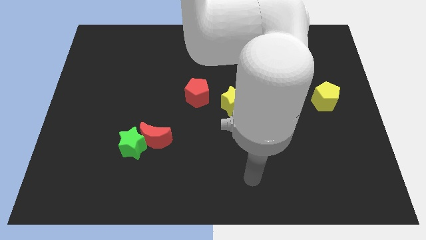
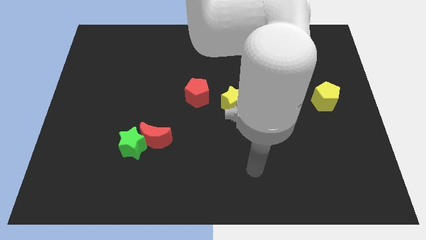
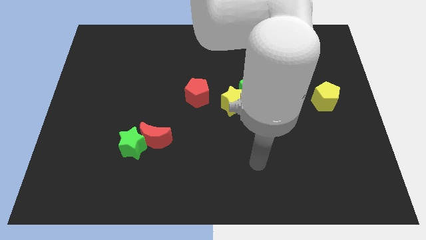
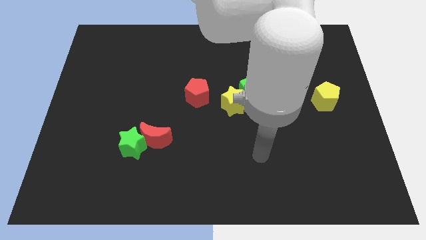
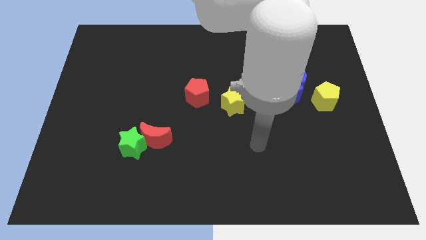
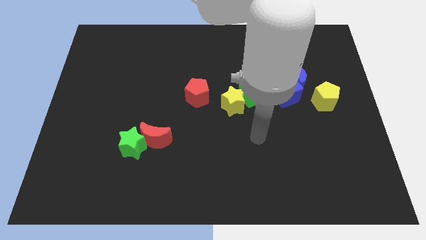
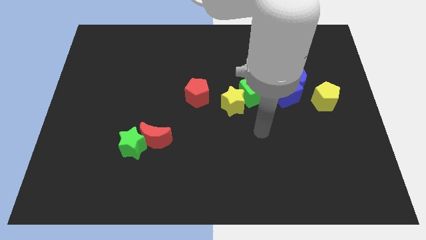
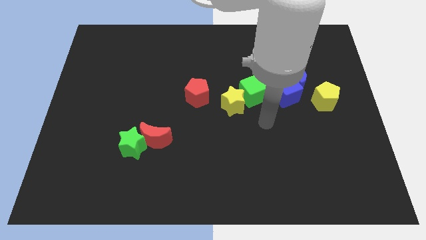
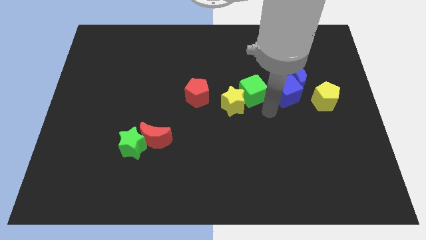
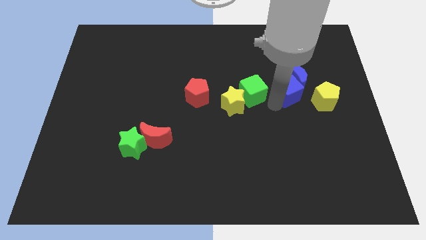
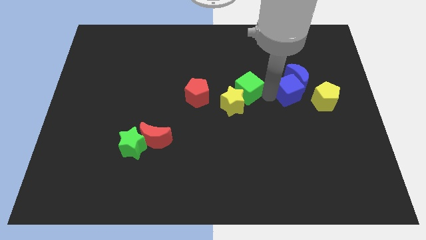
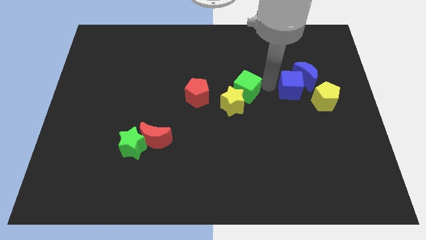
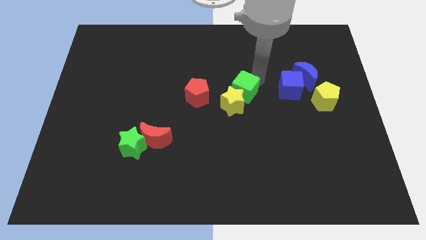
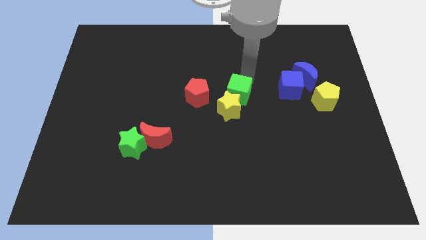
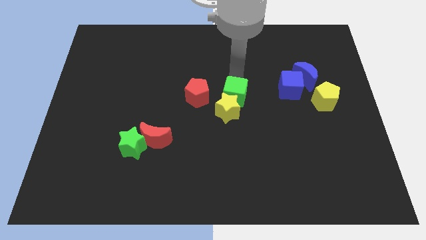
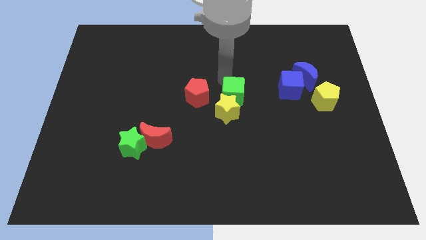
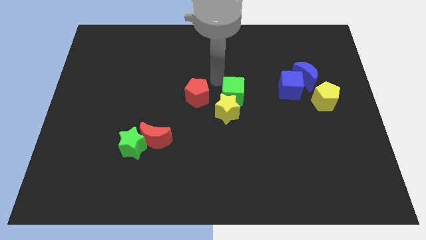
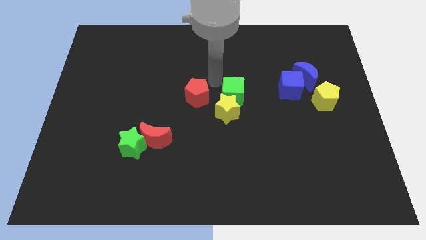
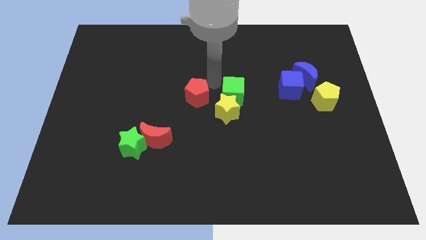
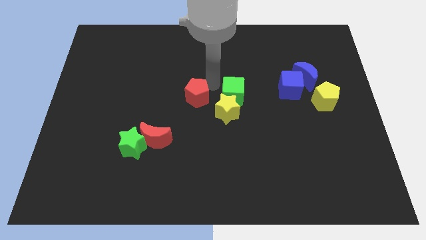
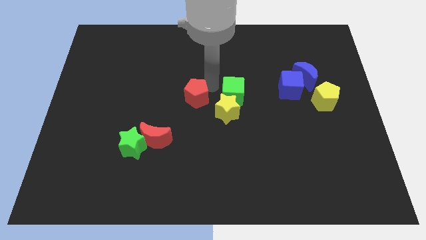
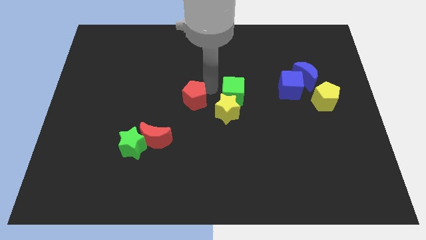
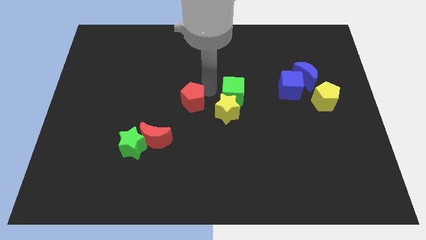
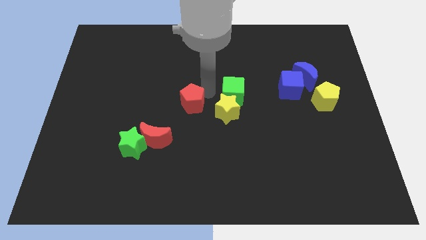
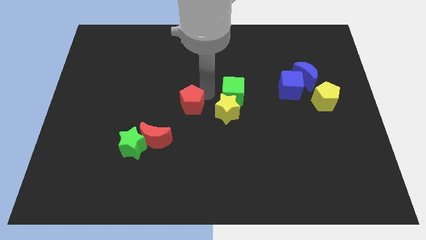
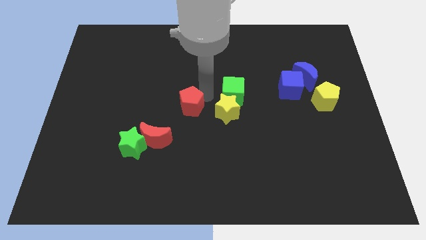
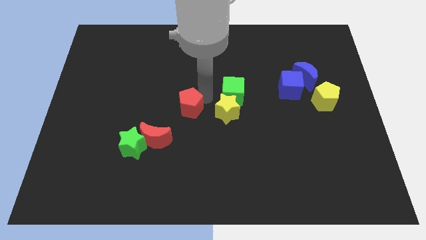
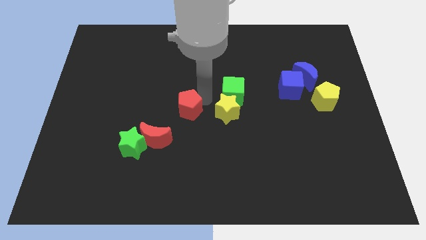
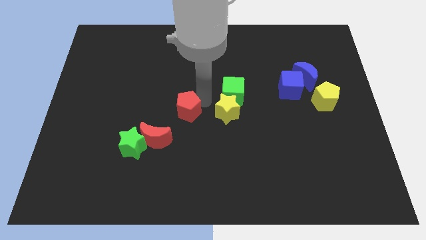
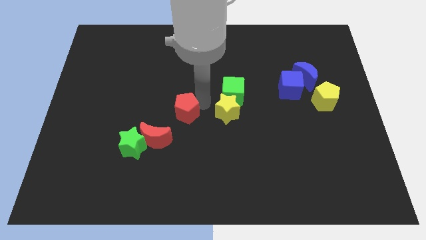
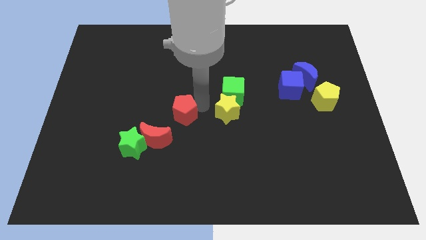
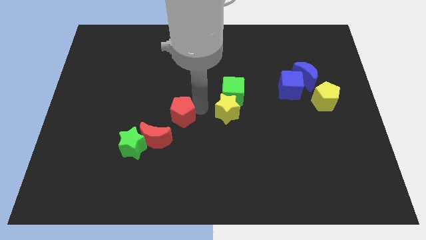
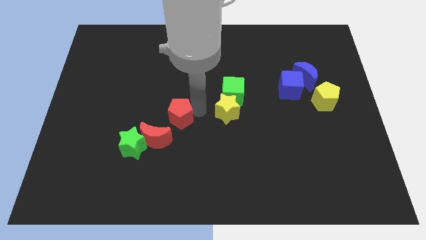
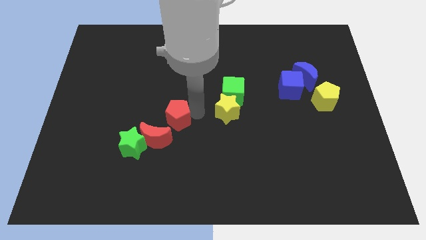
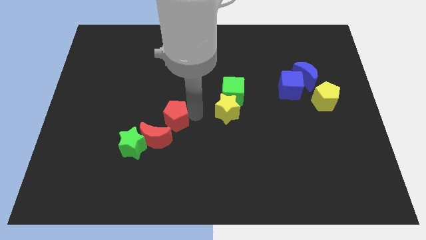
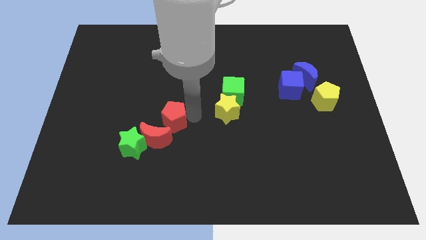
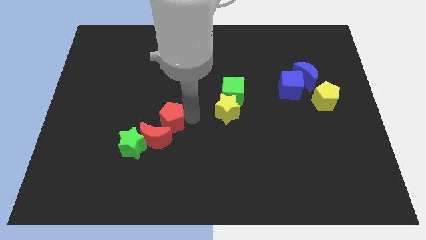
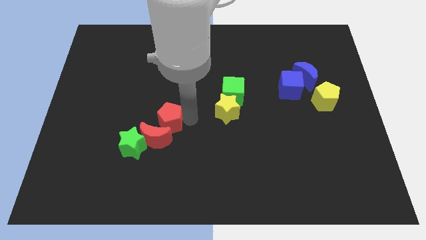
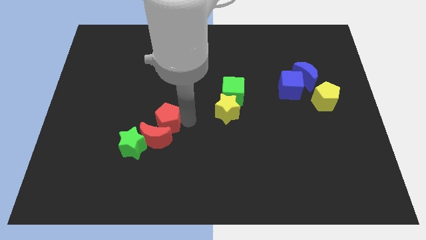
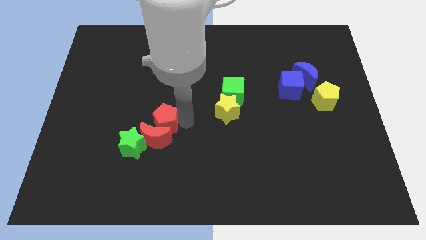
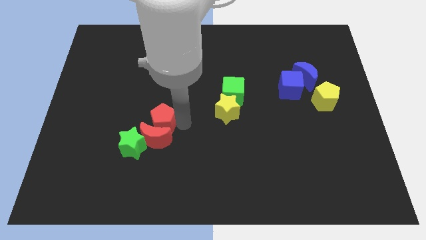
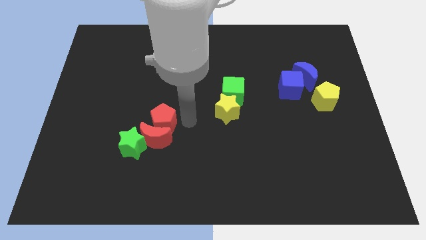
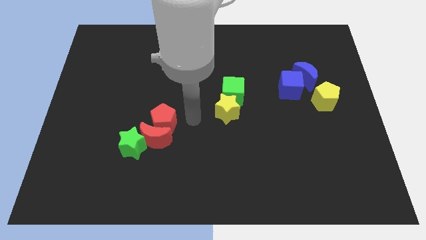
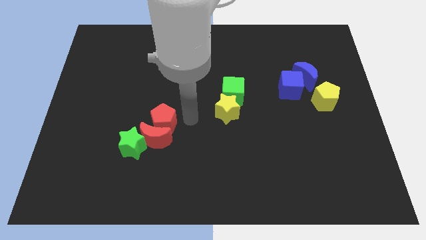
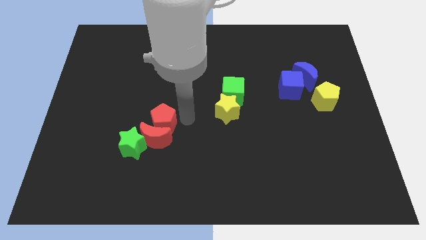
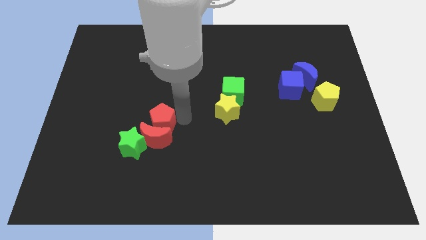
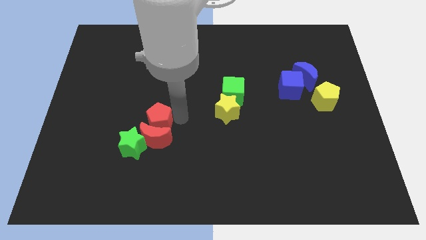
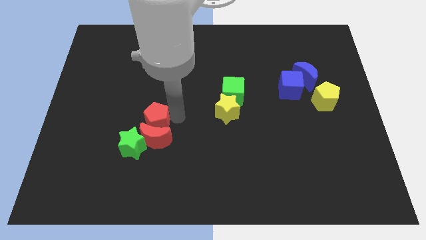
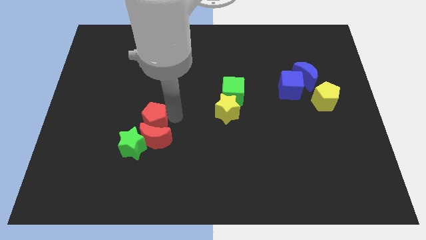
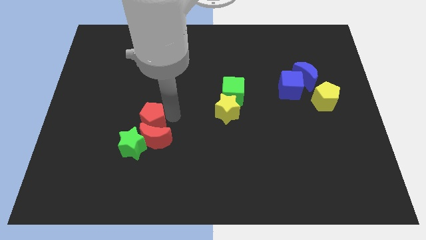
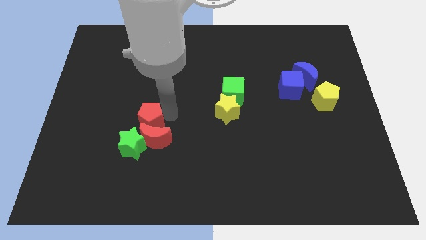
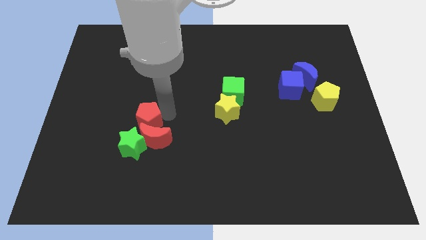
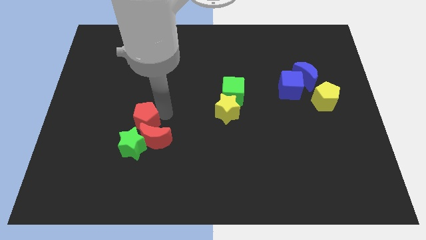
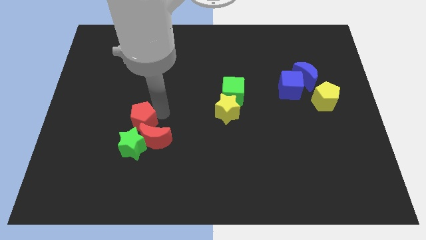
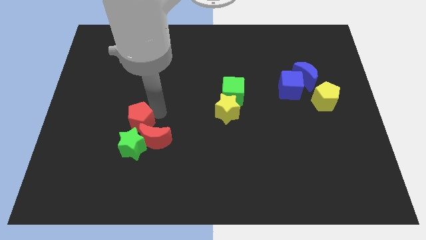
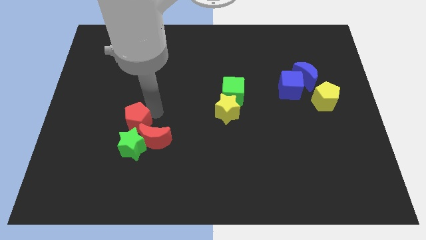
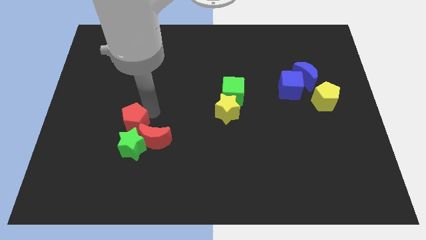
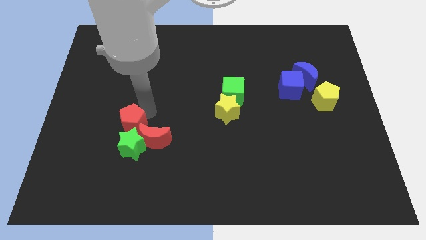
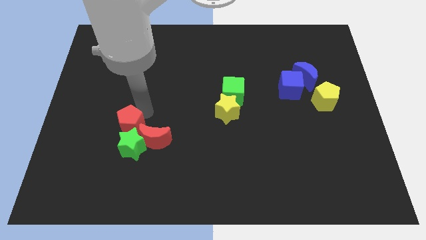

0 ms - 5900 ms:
put the red pentagon to the green star

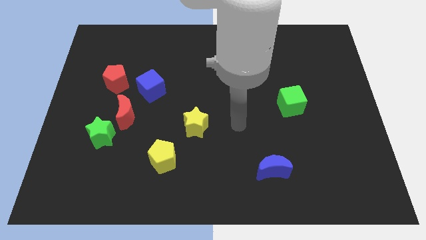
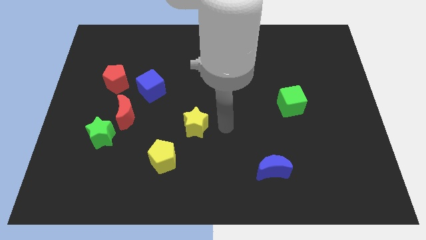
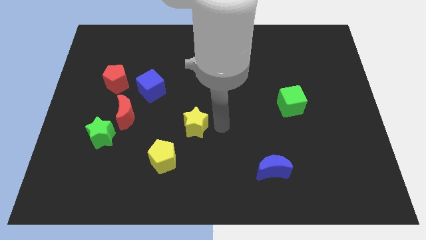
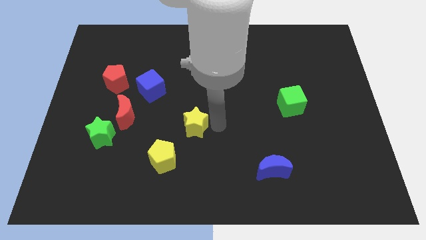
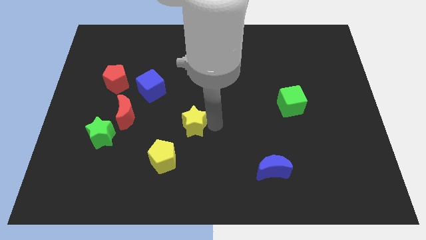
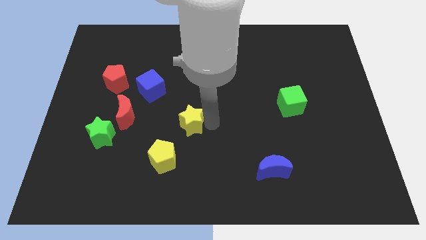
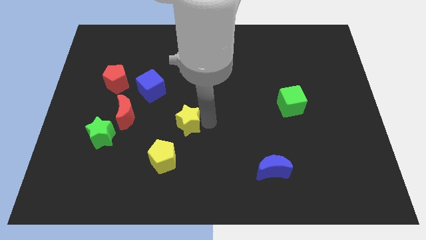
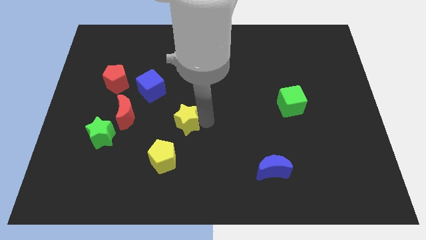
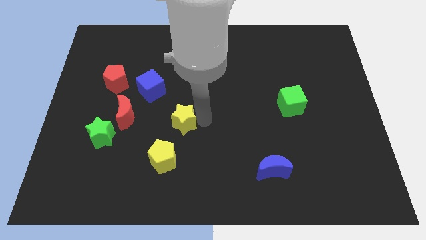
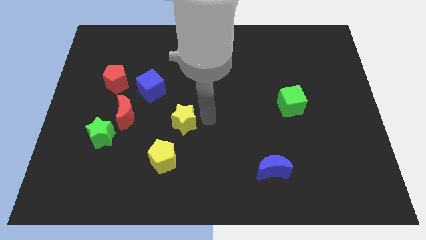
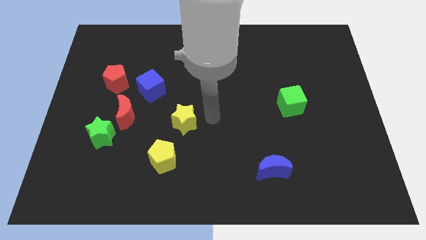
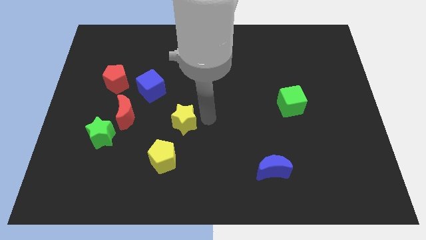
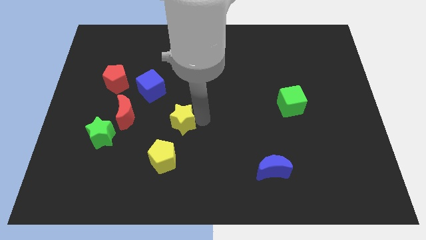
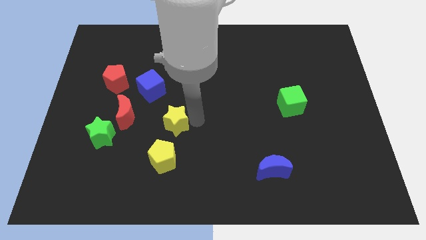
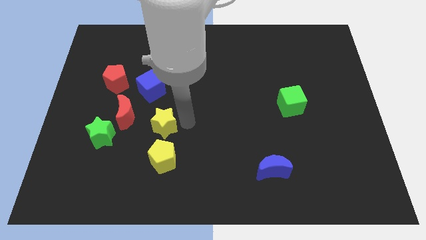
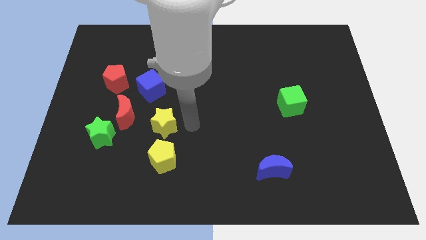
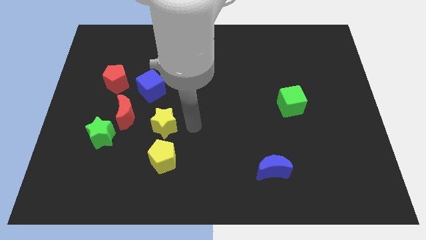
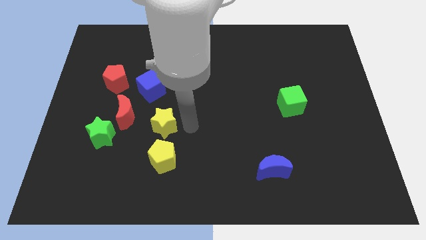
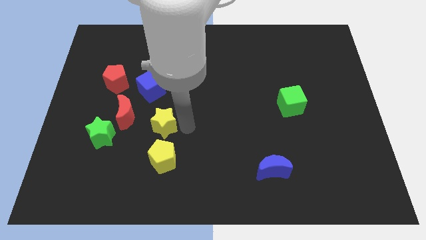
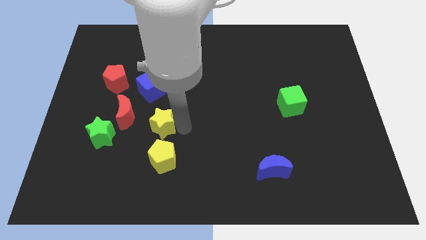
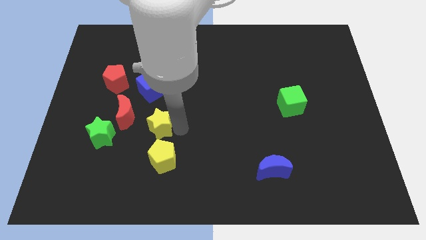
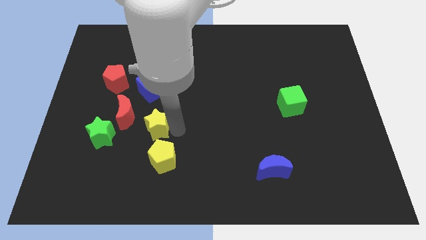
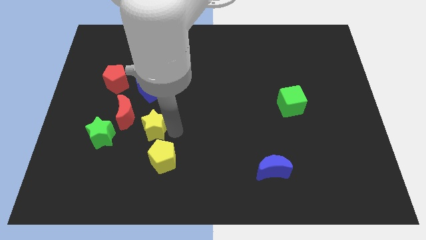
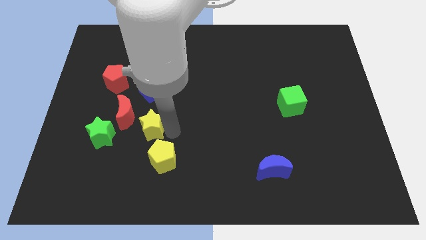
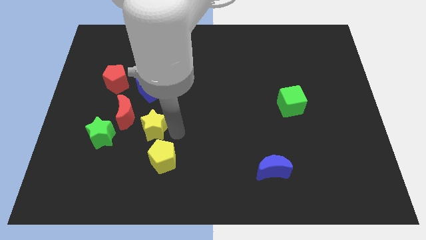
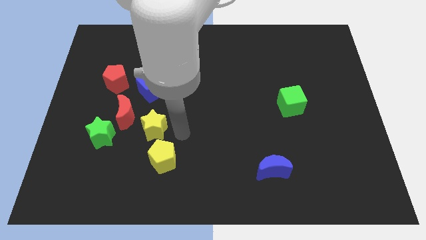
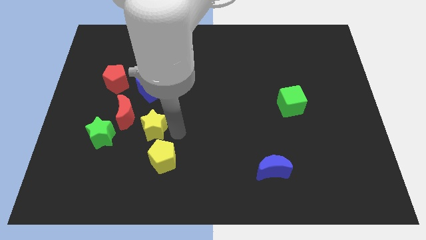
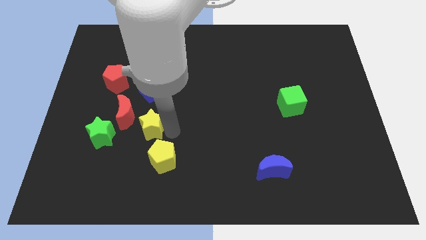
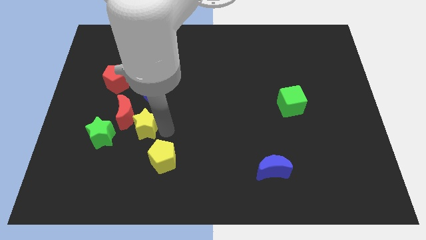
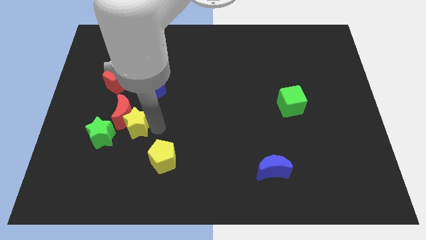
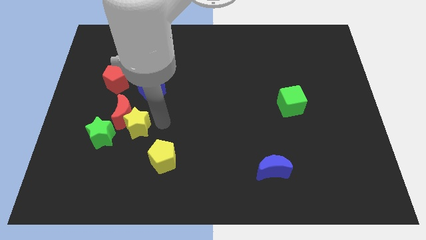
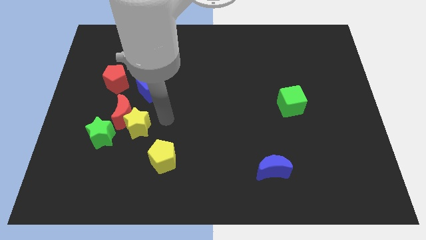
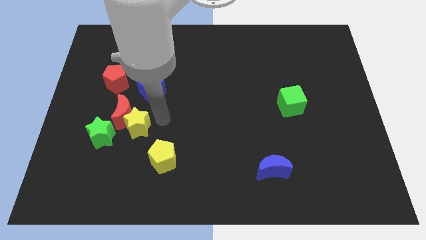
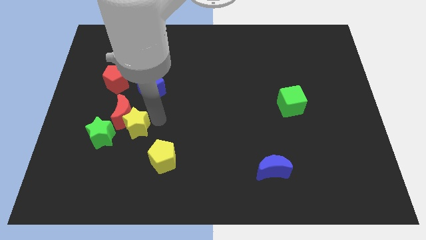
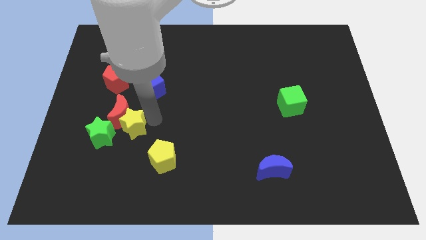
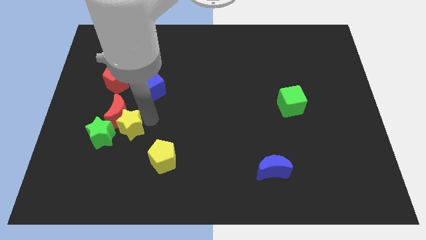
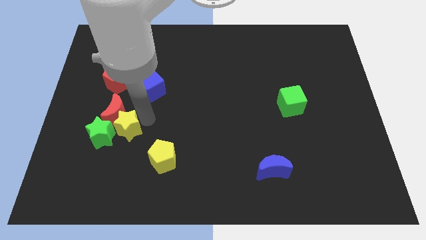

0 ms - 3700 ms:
move the yellow star next to the green star
